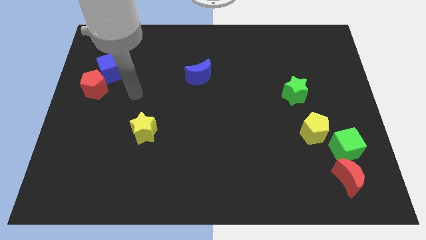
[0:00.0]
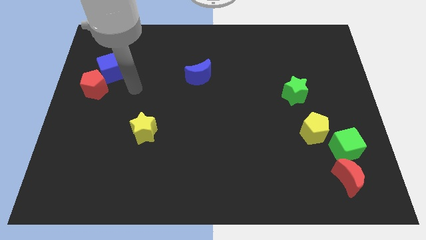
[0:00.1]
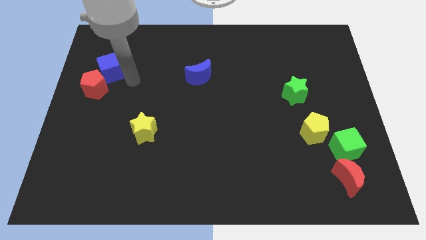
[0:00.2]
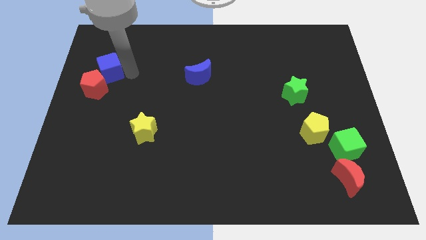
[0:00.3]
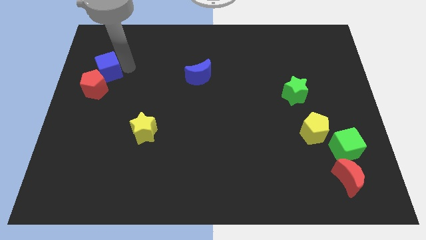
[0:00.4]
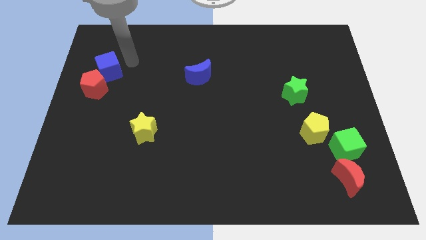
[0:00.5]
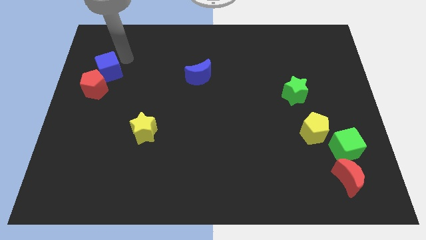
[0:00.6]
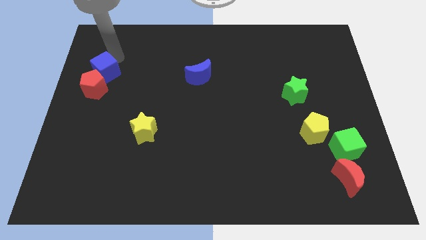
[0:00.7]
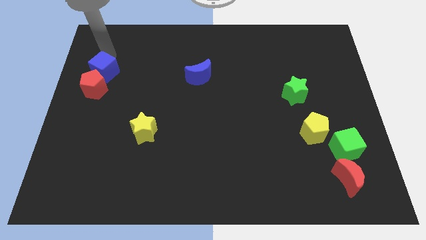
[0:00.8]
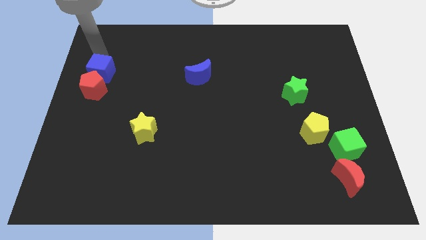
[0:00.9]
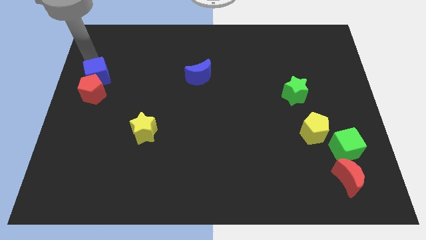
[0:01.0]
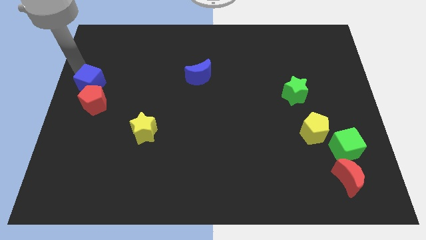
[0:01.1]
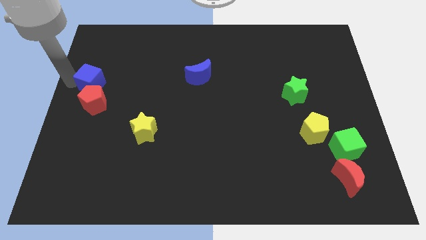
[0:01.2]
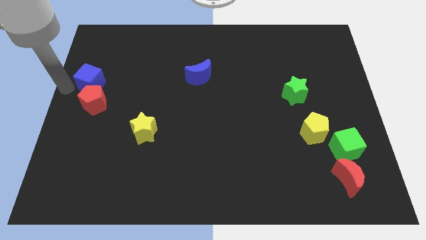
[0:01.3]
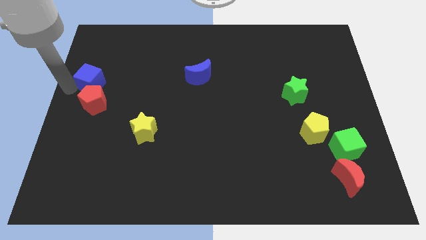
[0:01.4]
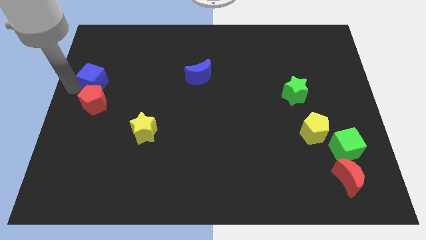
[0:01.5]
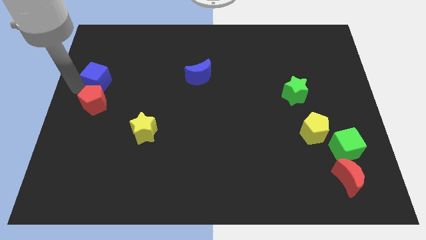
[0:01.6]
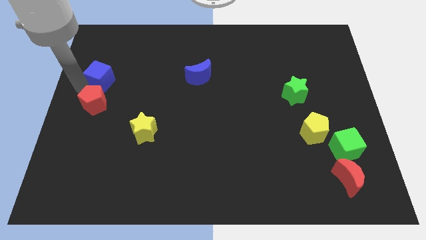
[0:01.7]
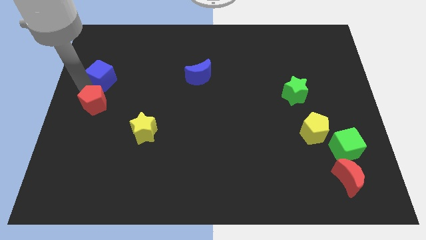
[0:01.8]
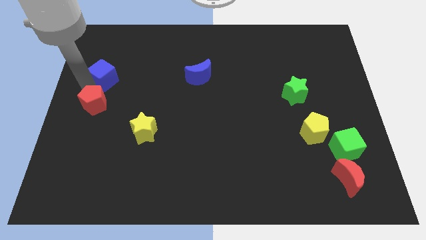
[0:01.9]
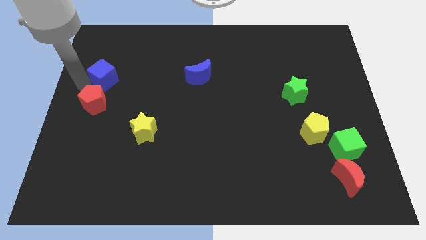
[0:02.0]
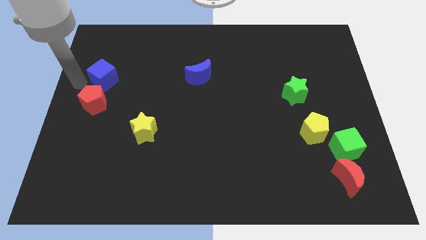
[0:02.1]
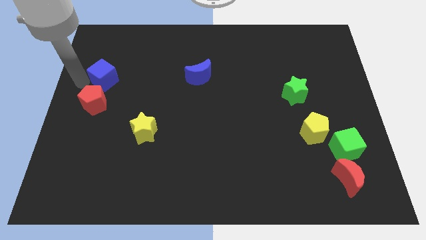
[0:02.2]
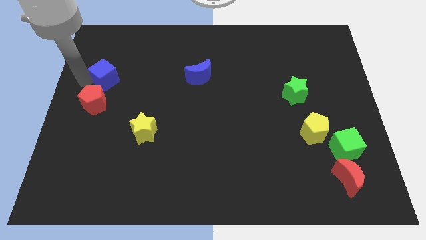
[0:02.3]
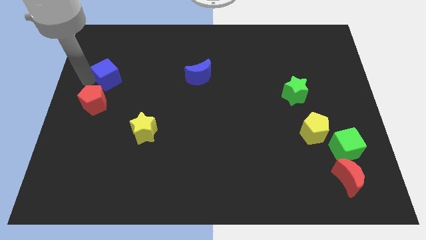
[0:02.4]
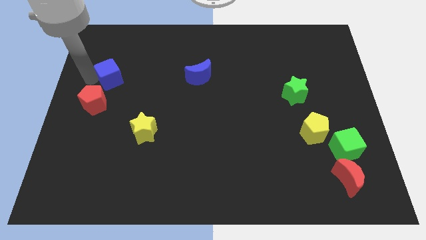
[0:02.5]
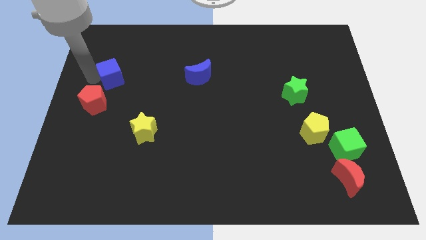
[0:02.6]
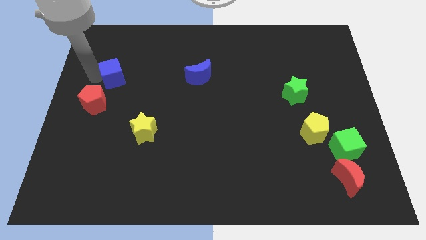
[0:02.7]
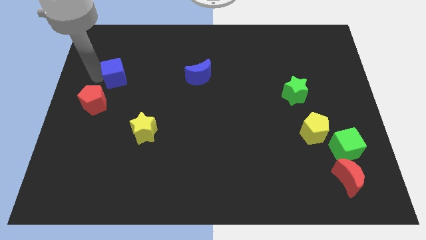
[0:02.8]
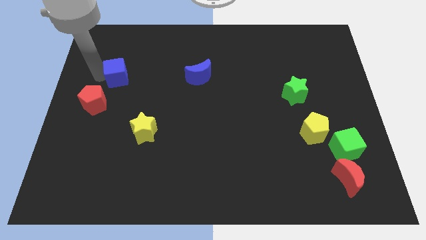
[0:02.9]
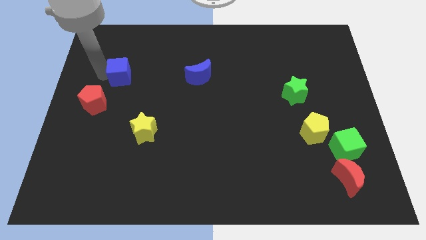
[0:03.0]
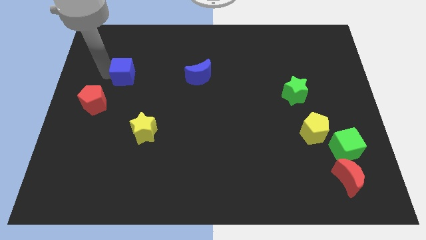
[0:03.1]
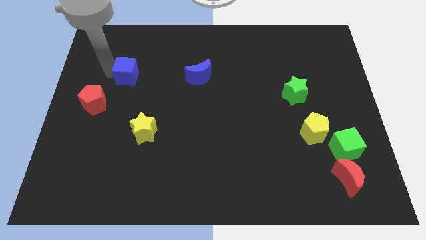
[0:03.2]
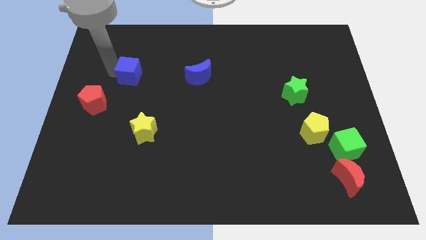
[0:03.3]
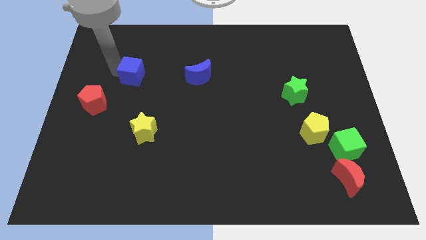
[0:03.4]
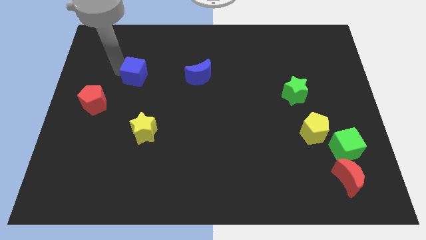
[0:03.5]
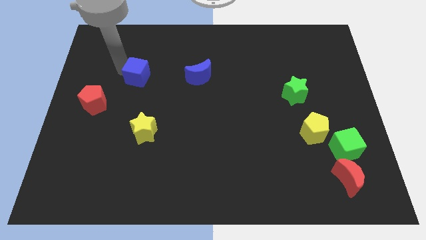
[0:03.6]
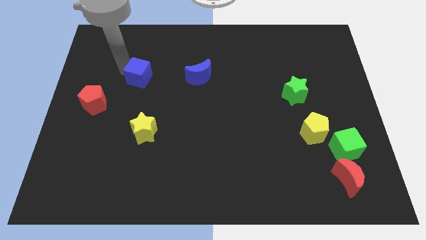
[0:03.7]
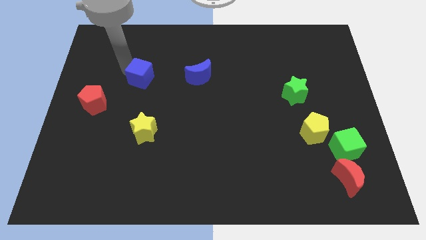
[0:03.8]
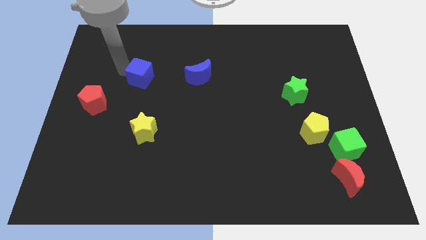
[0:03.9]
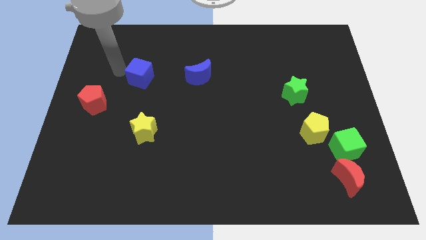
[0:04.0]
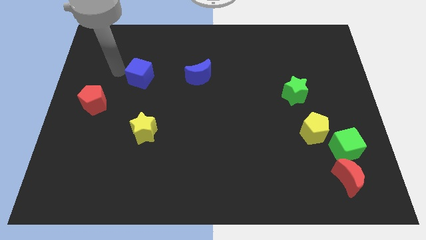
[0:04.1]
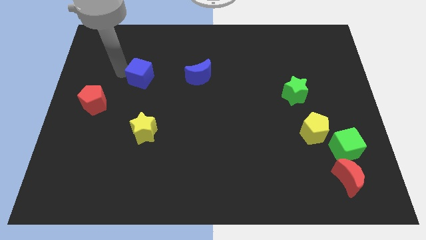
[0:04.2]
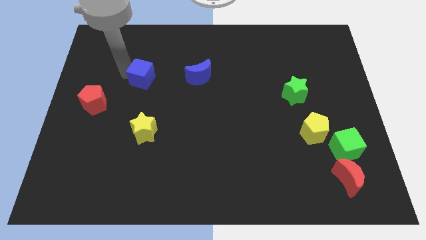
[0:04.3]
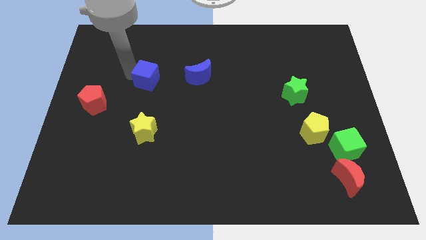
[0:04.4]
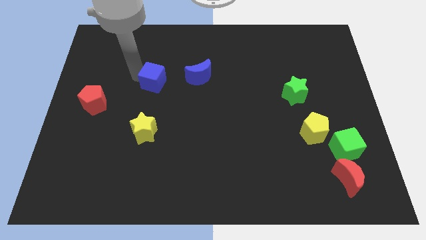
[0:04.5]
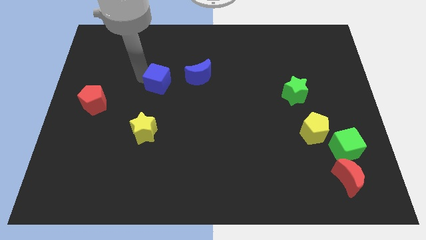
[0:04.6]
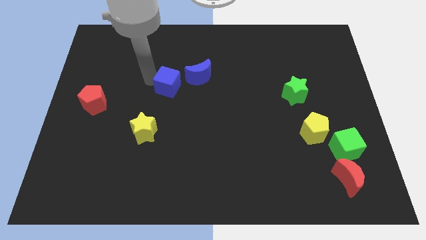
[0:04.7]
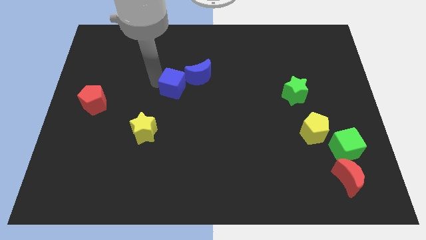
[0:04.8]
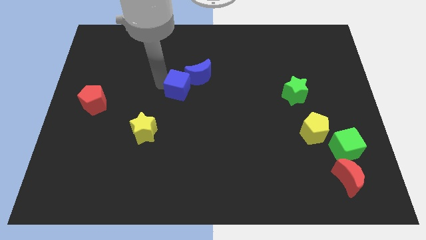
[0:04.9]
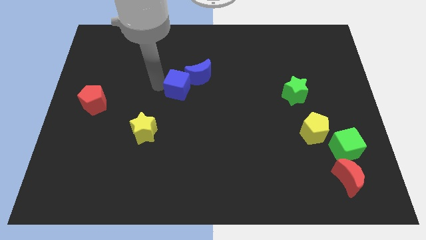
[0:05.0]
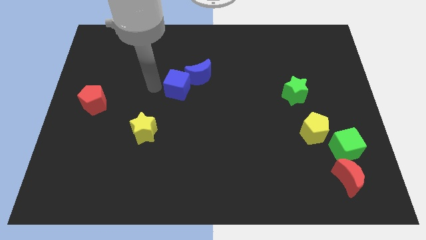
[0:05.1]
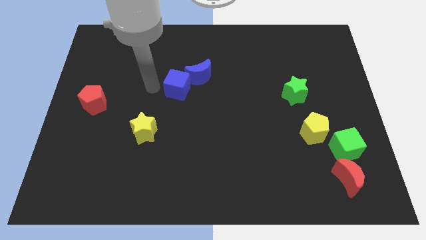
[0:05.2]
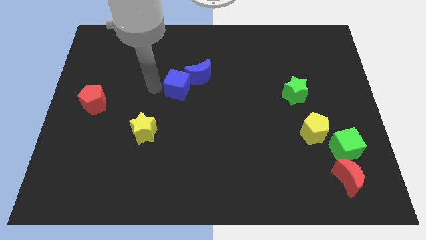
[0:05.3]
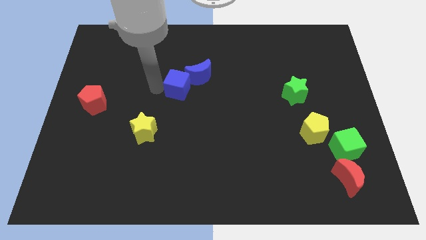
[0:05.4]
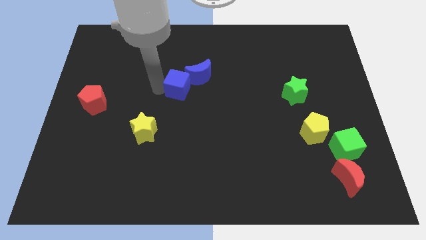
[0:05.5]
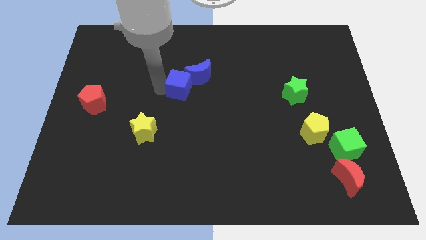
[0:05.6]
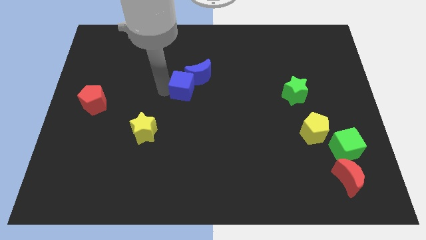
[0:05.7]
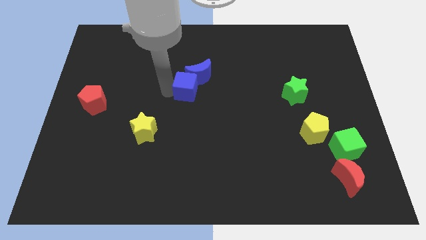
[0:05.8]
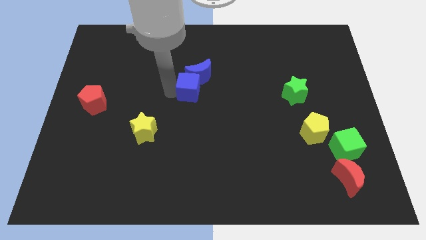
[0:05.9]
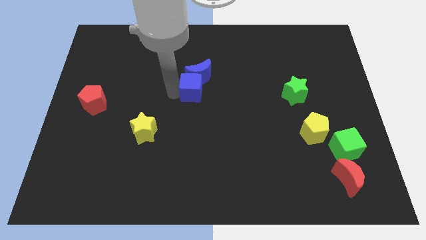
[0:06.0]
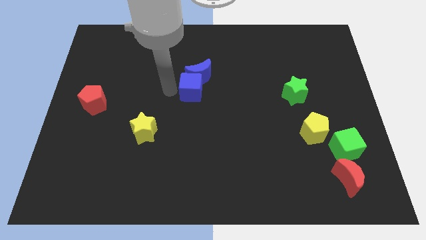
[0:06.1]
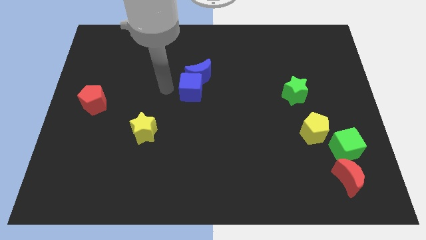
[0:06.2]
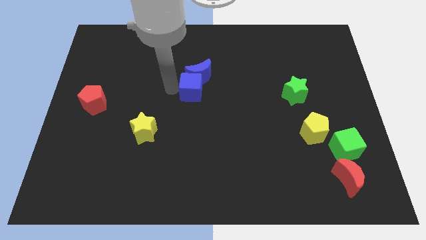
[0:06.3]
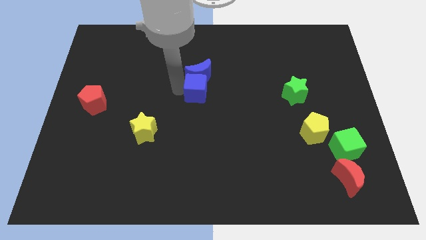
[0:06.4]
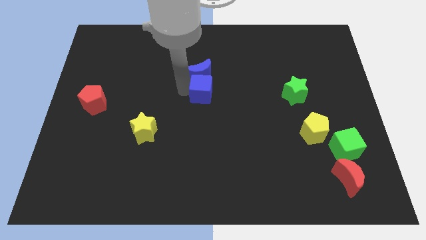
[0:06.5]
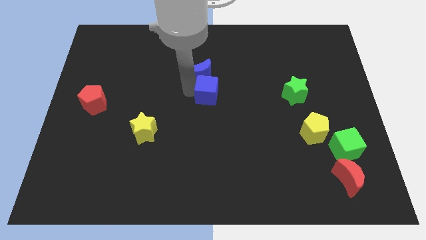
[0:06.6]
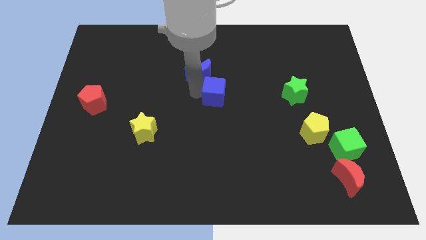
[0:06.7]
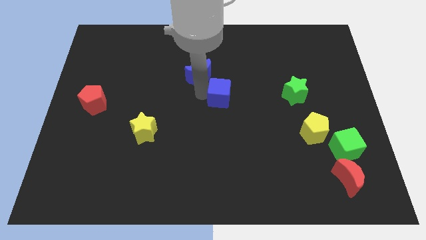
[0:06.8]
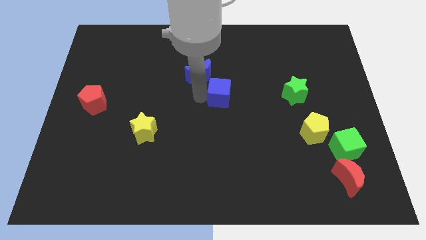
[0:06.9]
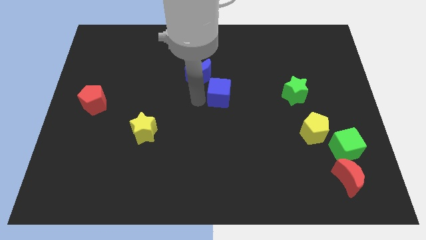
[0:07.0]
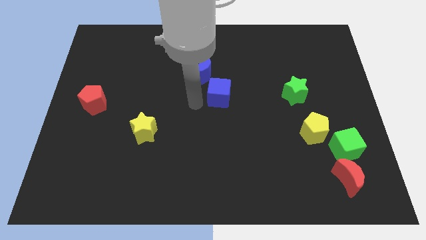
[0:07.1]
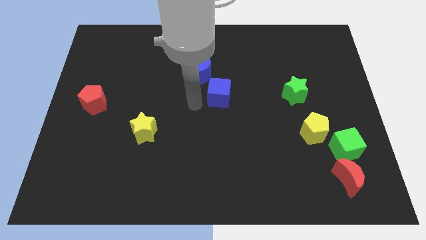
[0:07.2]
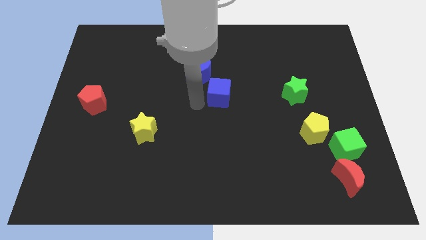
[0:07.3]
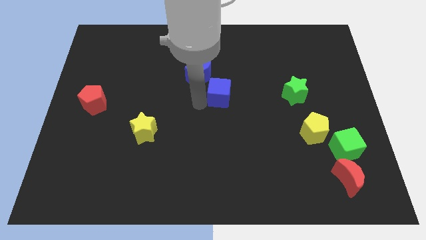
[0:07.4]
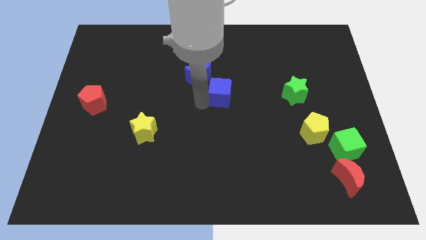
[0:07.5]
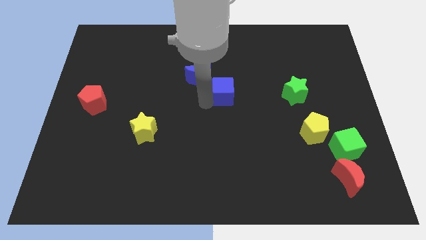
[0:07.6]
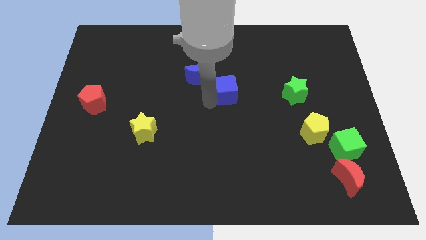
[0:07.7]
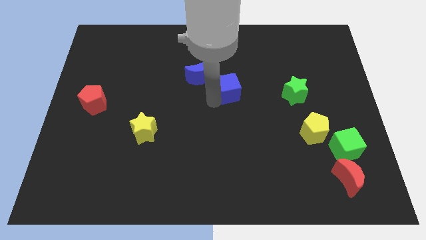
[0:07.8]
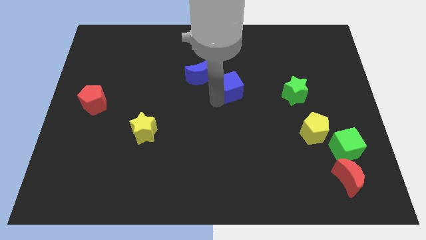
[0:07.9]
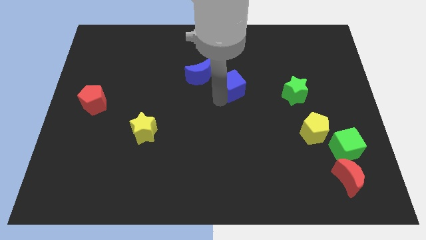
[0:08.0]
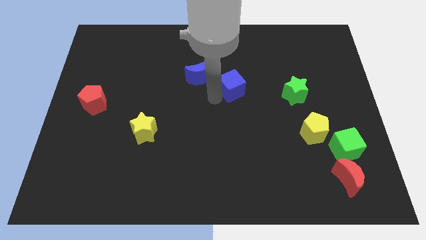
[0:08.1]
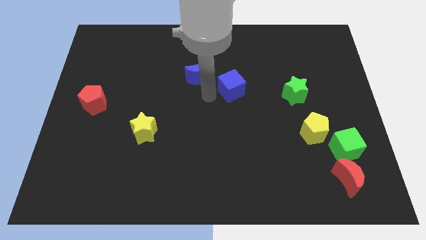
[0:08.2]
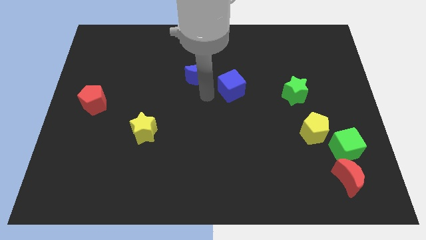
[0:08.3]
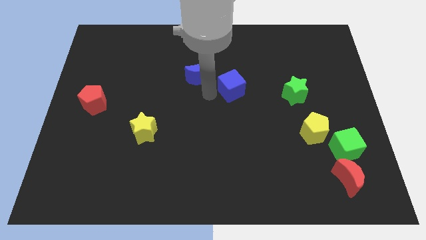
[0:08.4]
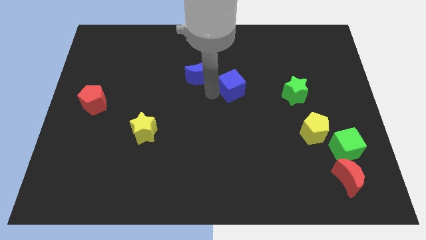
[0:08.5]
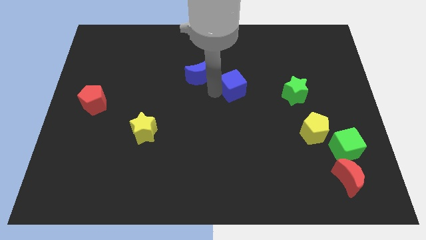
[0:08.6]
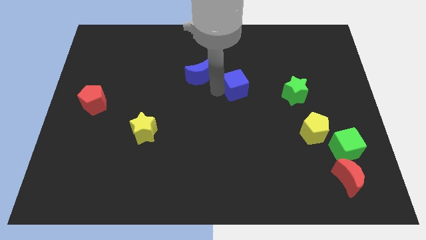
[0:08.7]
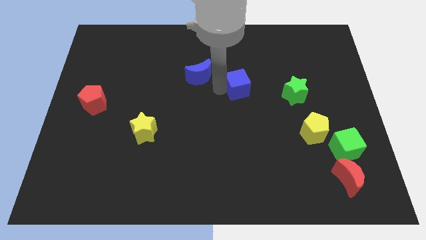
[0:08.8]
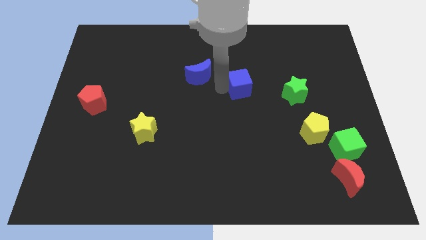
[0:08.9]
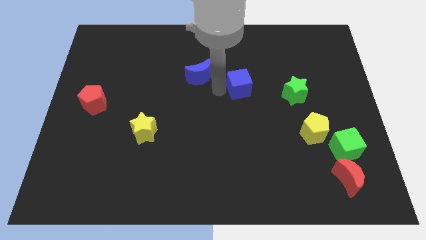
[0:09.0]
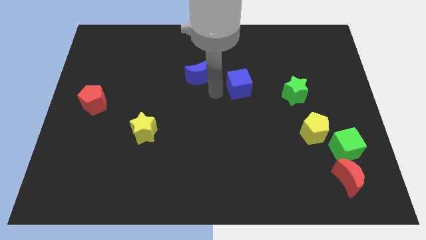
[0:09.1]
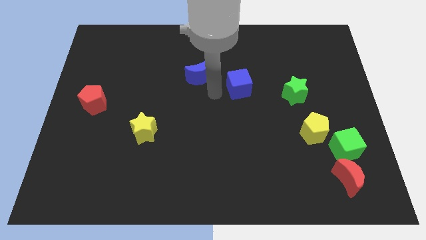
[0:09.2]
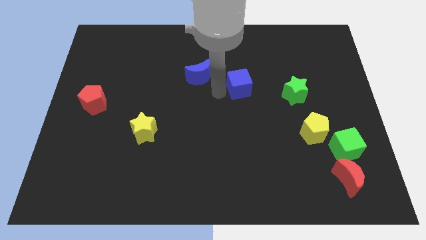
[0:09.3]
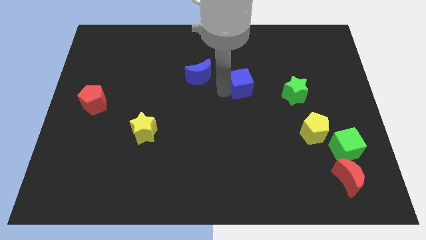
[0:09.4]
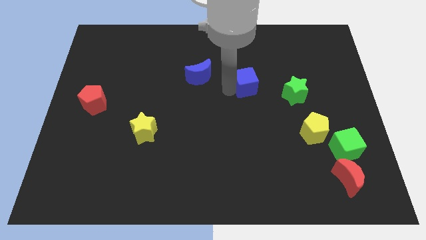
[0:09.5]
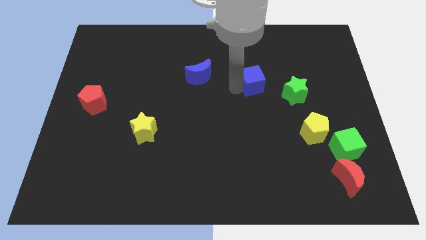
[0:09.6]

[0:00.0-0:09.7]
push the blue cube to the top left of the green star
